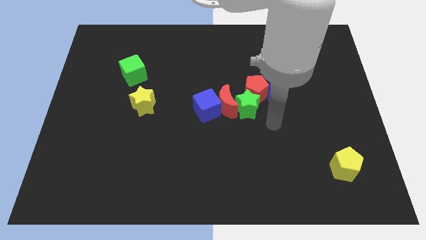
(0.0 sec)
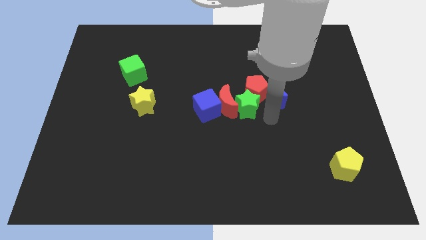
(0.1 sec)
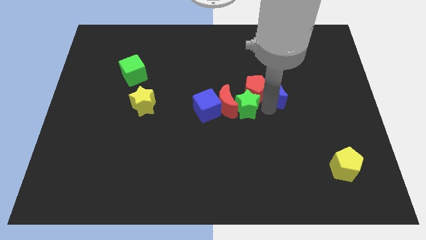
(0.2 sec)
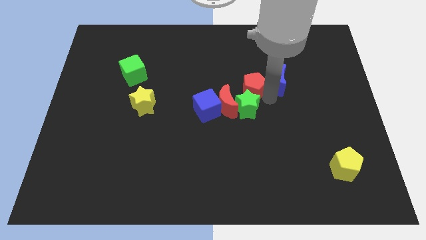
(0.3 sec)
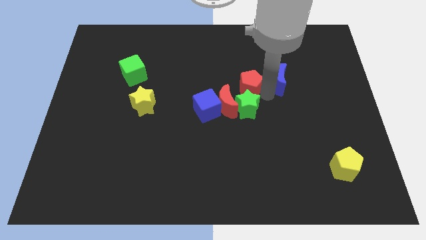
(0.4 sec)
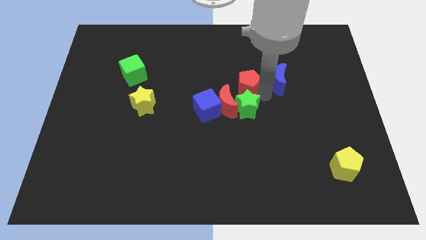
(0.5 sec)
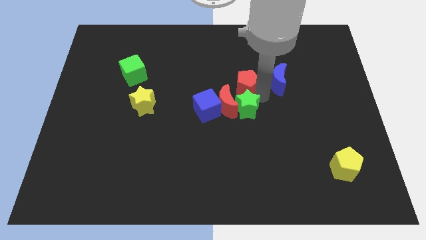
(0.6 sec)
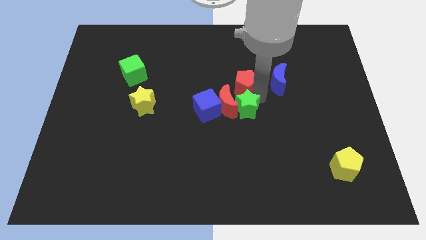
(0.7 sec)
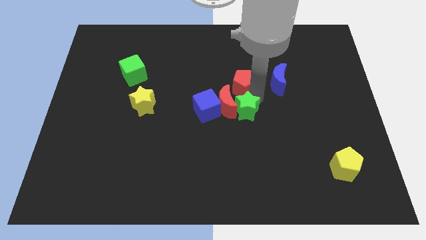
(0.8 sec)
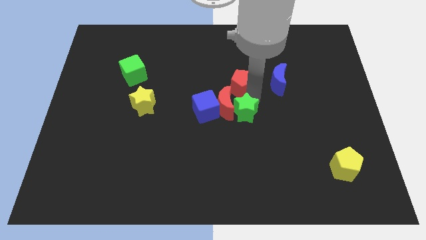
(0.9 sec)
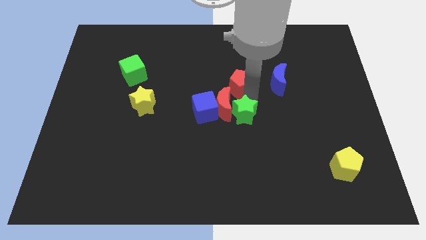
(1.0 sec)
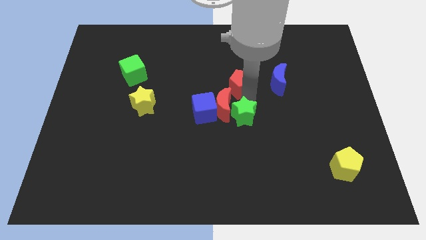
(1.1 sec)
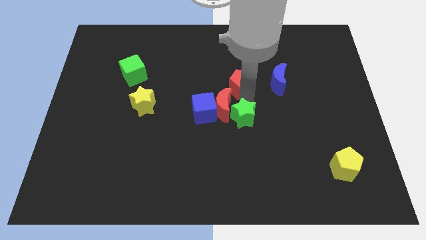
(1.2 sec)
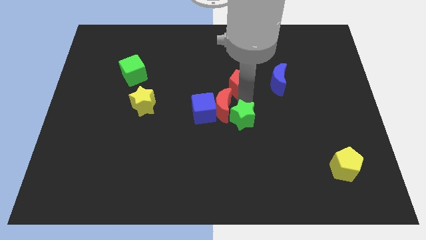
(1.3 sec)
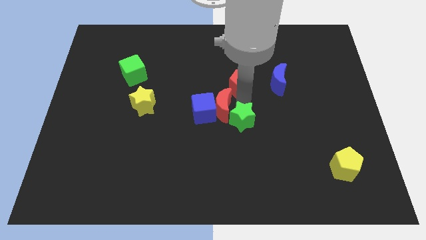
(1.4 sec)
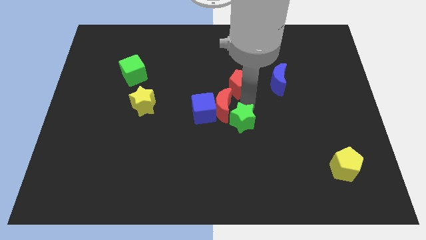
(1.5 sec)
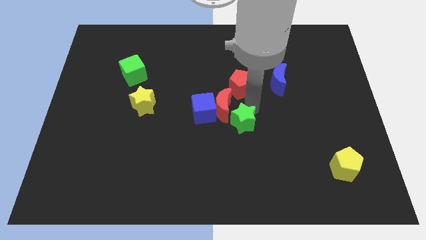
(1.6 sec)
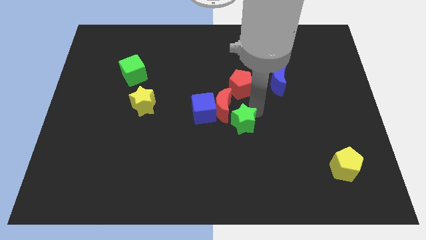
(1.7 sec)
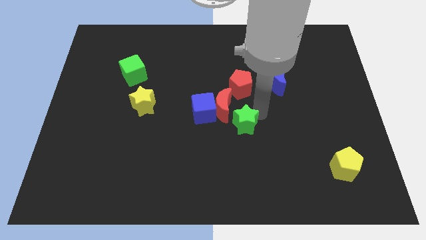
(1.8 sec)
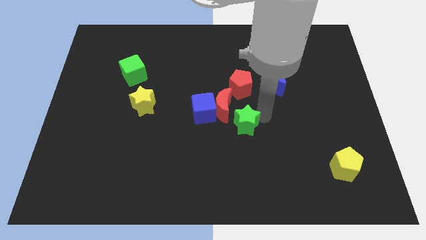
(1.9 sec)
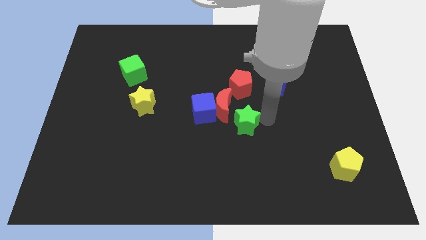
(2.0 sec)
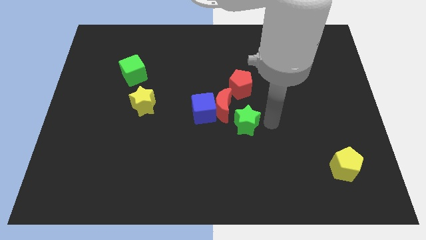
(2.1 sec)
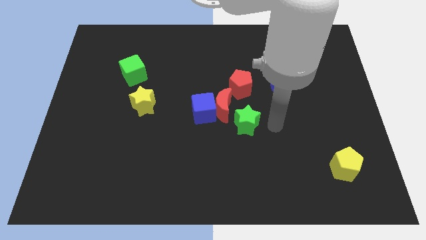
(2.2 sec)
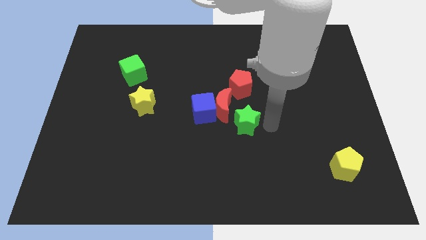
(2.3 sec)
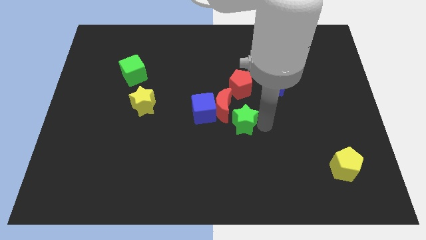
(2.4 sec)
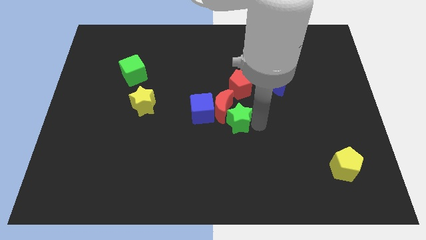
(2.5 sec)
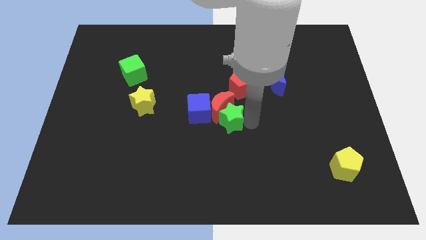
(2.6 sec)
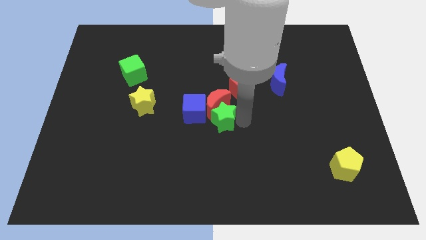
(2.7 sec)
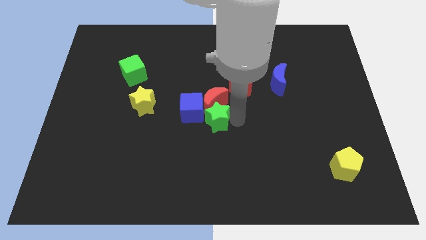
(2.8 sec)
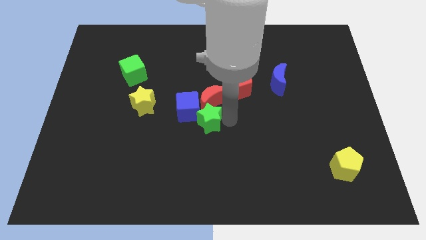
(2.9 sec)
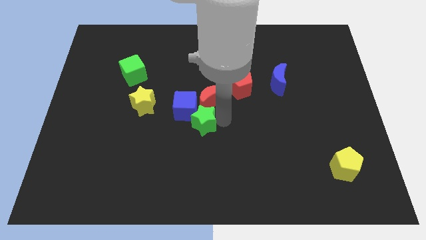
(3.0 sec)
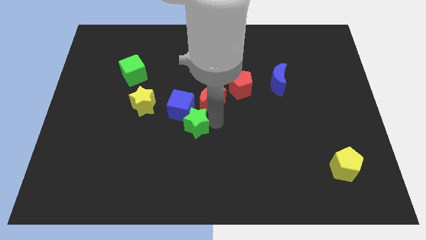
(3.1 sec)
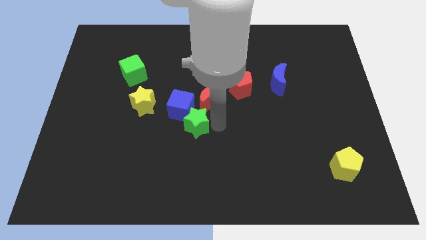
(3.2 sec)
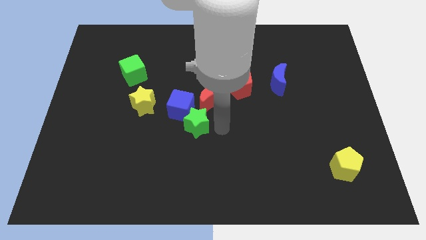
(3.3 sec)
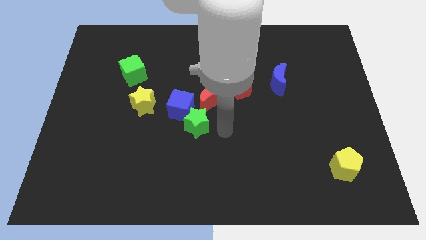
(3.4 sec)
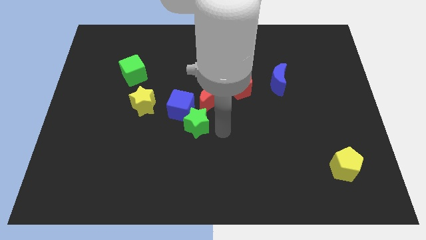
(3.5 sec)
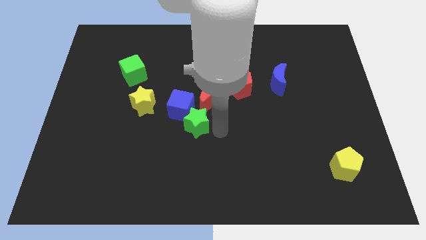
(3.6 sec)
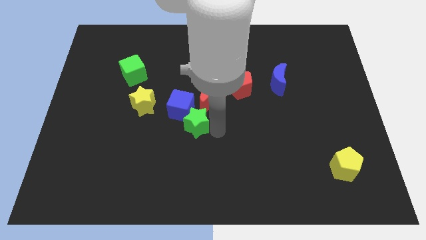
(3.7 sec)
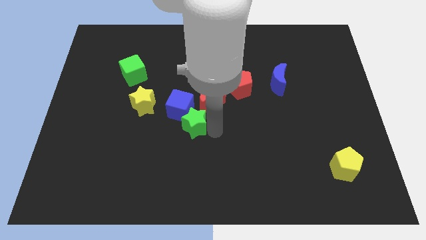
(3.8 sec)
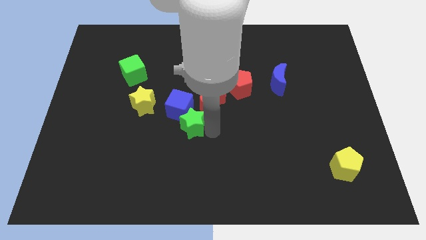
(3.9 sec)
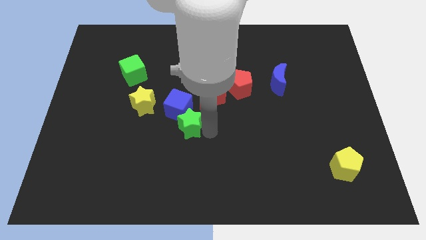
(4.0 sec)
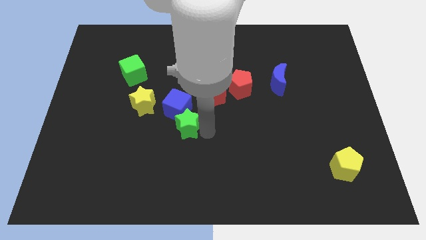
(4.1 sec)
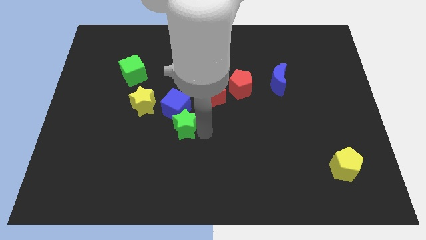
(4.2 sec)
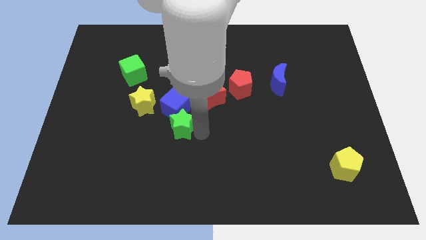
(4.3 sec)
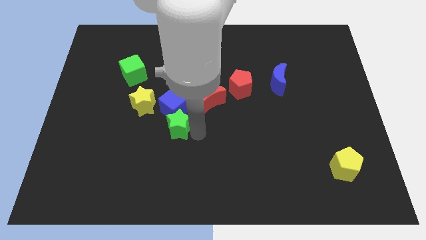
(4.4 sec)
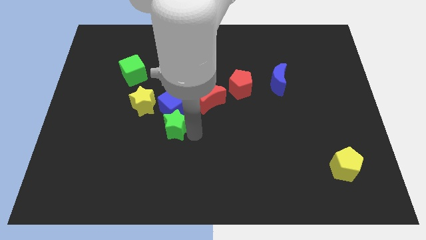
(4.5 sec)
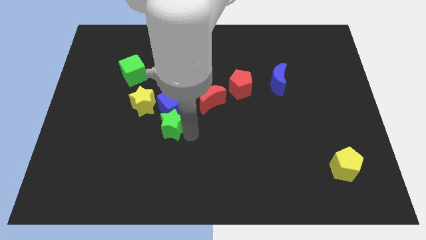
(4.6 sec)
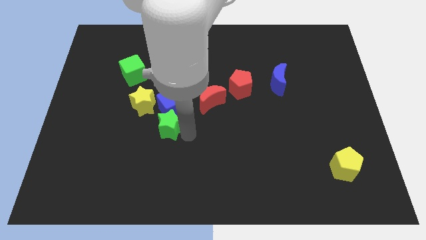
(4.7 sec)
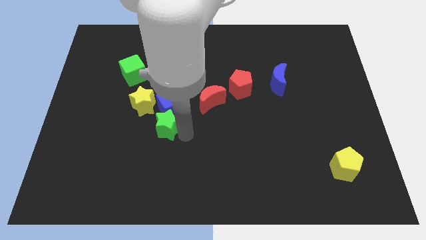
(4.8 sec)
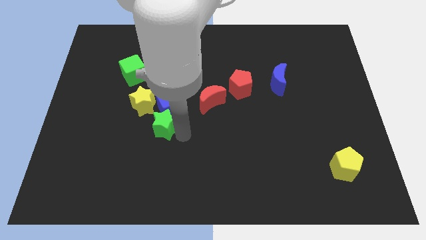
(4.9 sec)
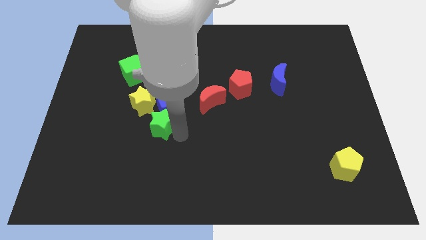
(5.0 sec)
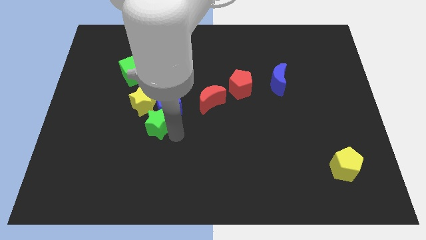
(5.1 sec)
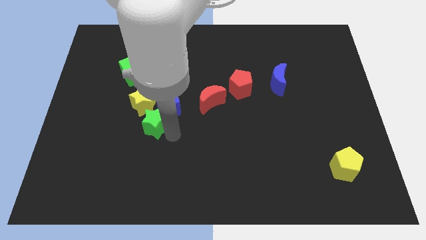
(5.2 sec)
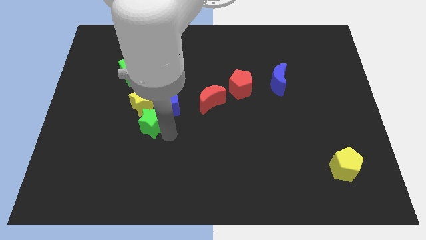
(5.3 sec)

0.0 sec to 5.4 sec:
move the green star close to the yellow star
